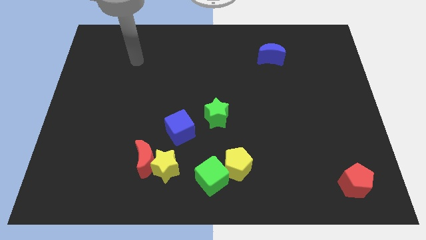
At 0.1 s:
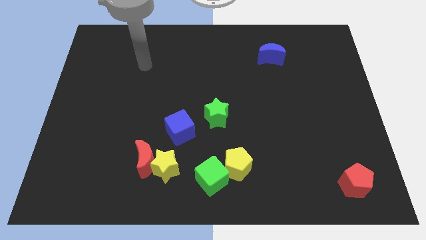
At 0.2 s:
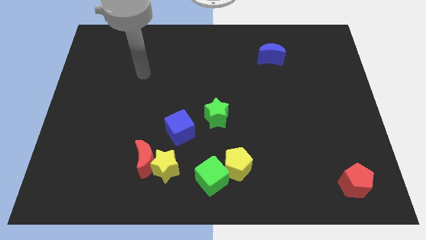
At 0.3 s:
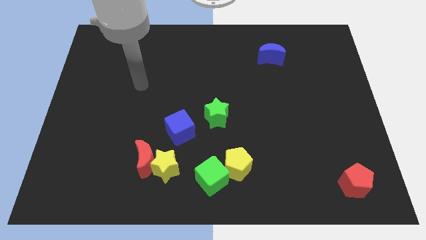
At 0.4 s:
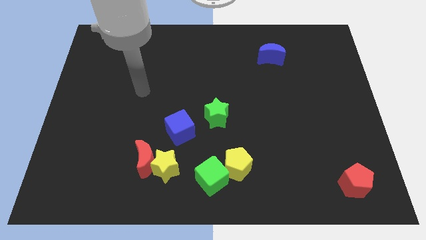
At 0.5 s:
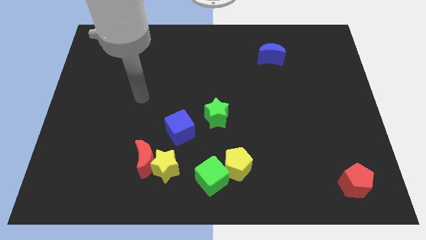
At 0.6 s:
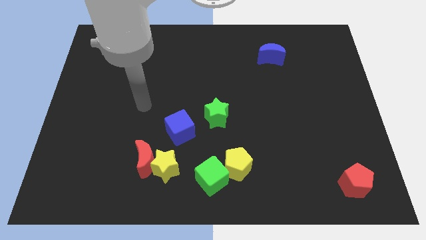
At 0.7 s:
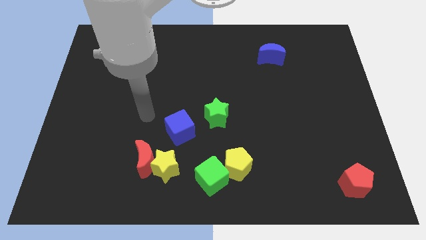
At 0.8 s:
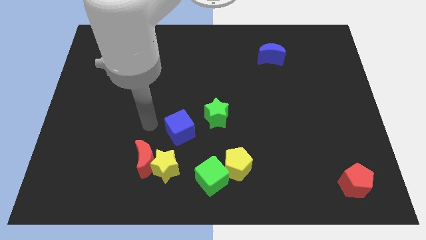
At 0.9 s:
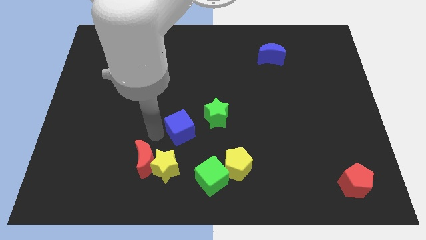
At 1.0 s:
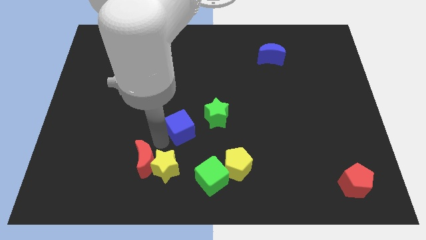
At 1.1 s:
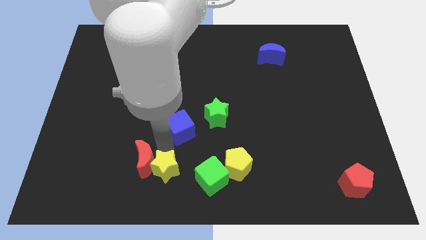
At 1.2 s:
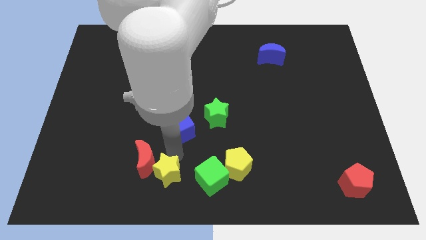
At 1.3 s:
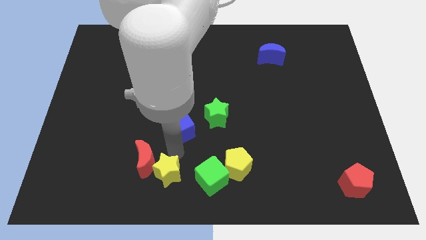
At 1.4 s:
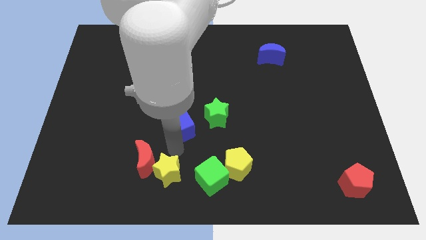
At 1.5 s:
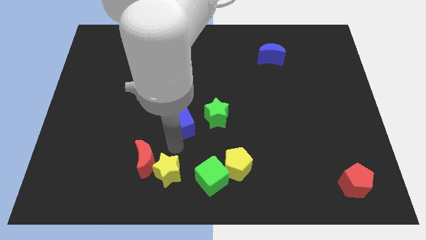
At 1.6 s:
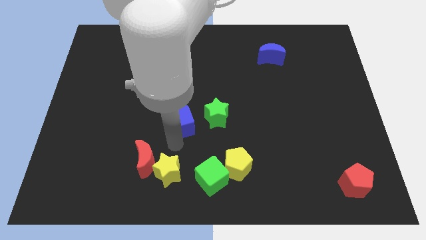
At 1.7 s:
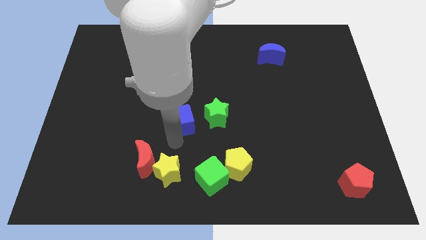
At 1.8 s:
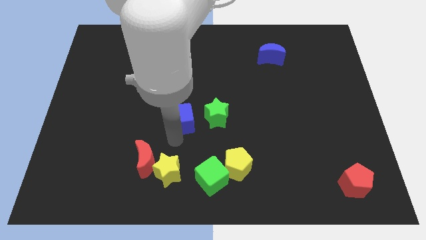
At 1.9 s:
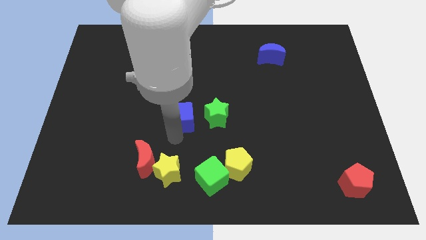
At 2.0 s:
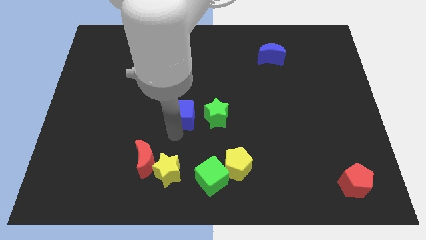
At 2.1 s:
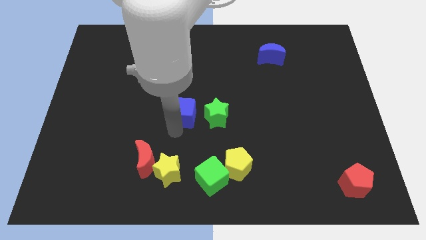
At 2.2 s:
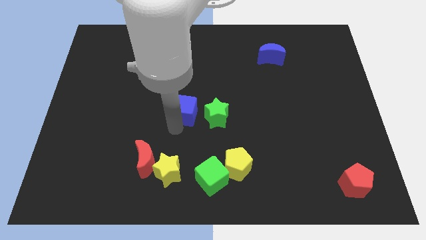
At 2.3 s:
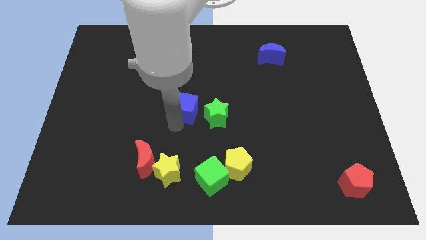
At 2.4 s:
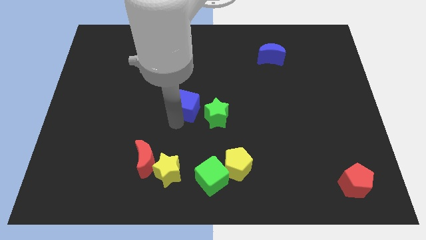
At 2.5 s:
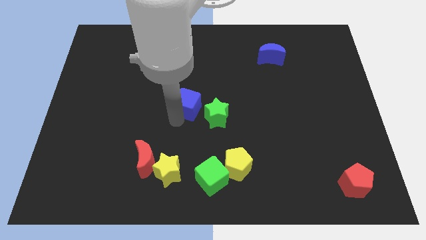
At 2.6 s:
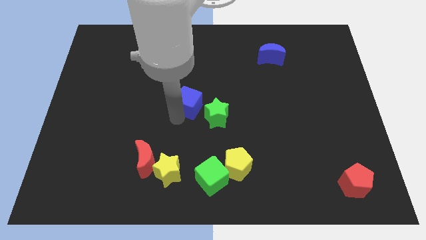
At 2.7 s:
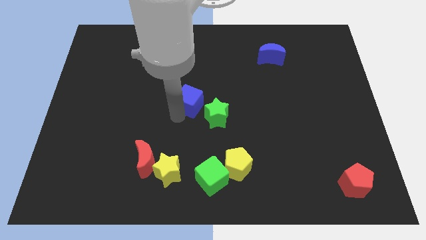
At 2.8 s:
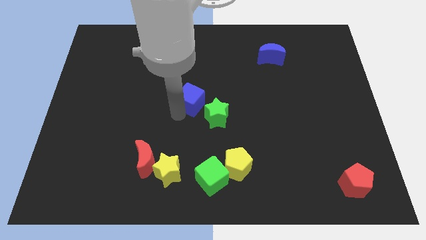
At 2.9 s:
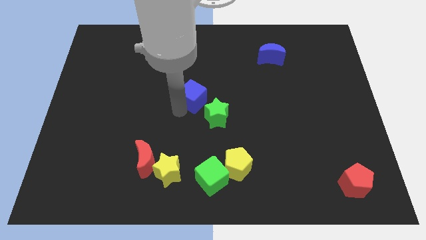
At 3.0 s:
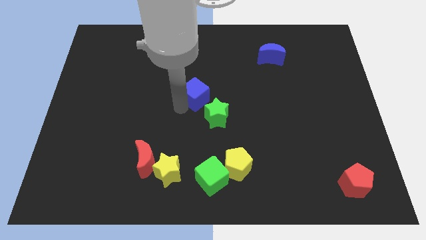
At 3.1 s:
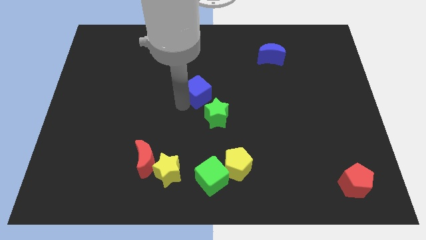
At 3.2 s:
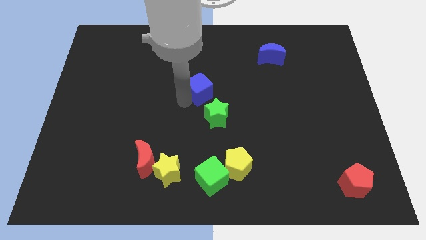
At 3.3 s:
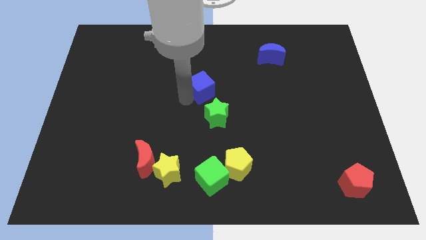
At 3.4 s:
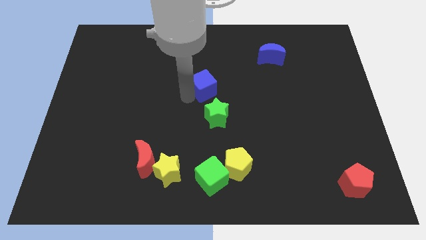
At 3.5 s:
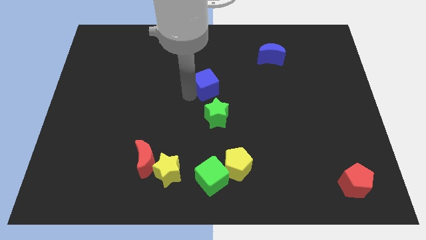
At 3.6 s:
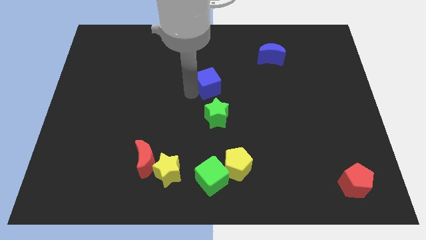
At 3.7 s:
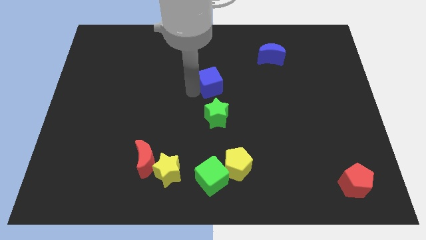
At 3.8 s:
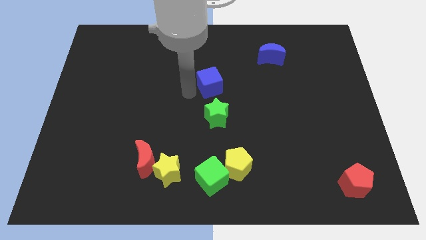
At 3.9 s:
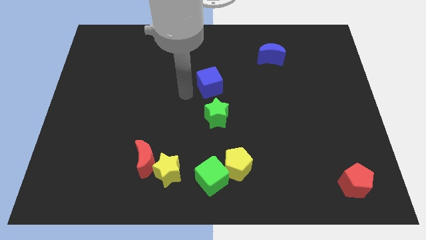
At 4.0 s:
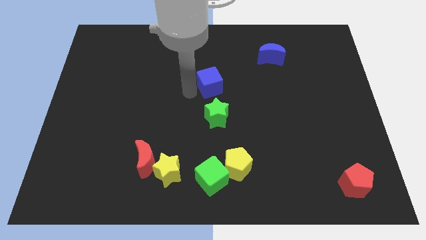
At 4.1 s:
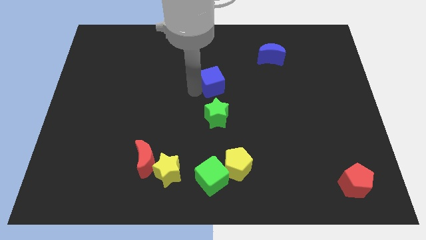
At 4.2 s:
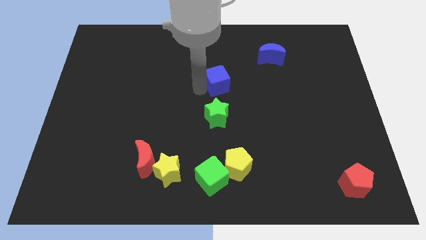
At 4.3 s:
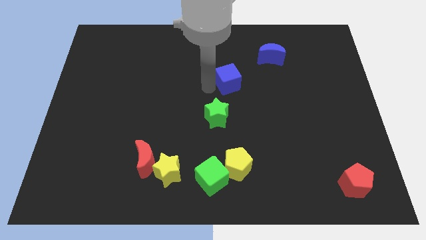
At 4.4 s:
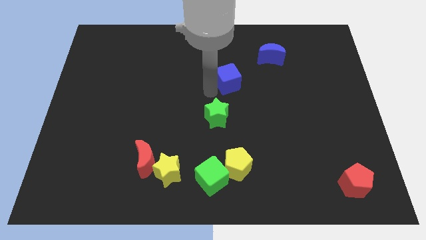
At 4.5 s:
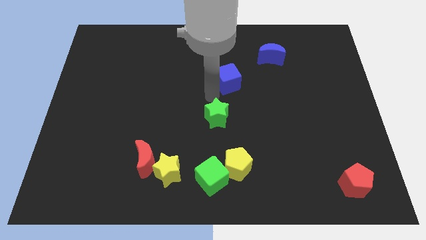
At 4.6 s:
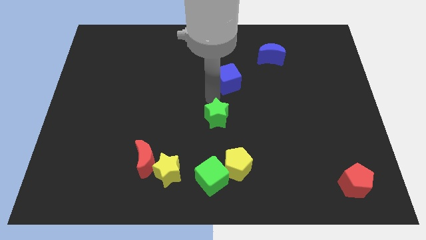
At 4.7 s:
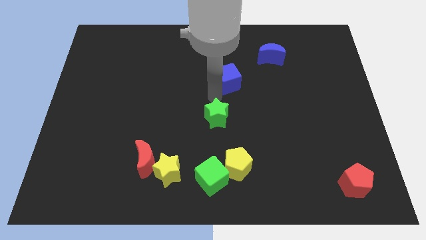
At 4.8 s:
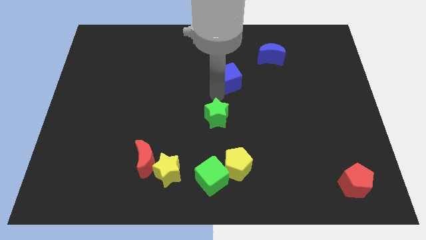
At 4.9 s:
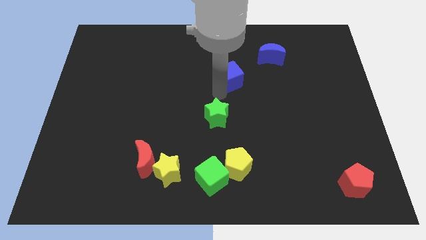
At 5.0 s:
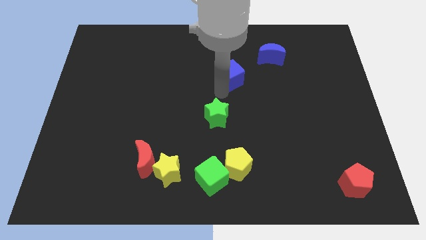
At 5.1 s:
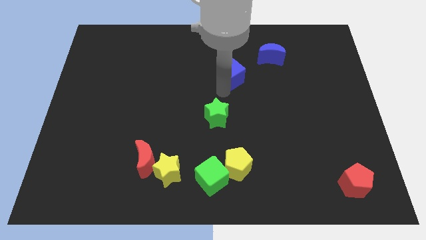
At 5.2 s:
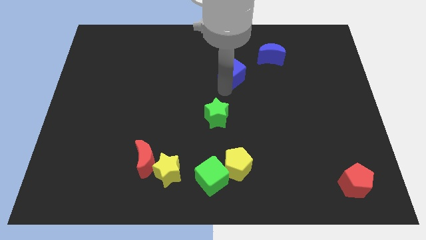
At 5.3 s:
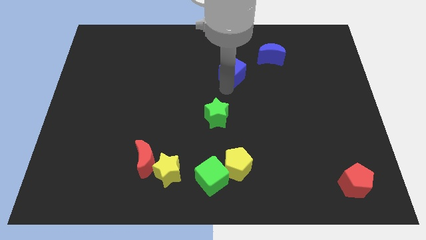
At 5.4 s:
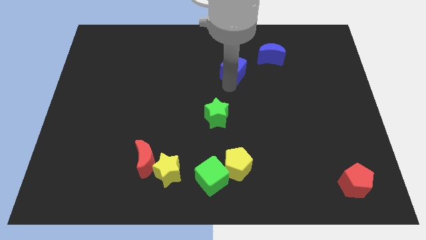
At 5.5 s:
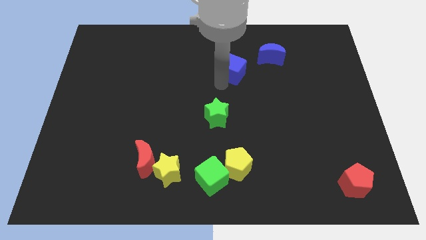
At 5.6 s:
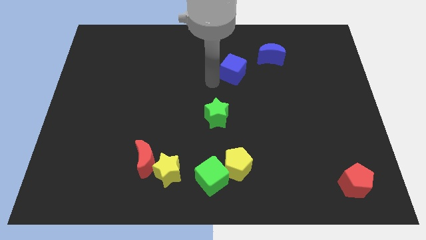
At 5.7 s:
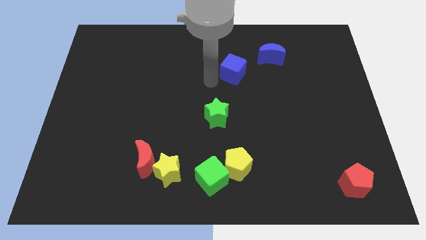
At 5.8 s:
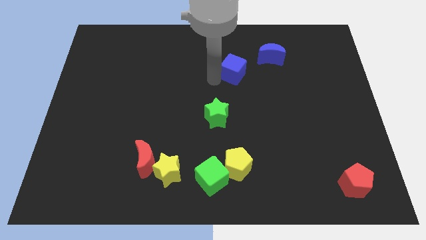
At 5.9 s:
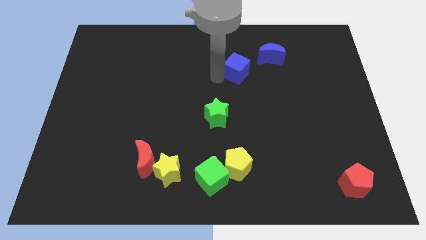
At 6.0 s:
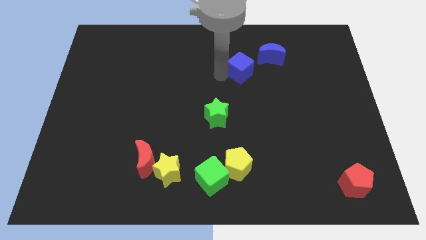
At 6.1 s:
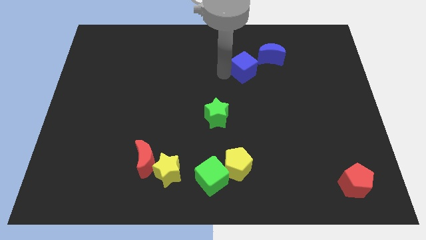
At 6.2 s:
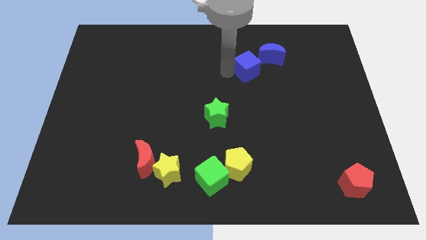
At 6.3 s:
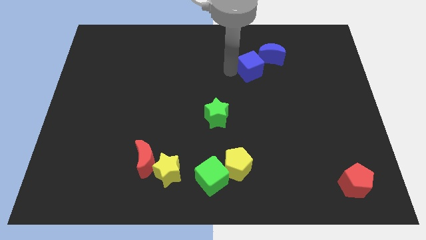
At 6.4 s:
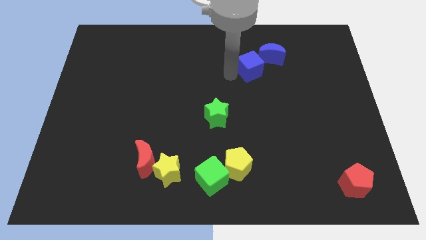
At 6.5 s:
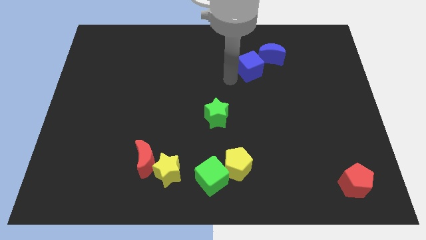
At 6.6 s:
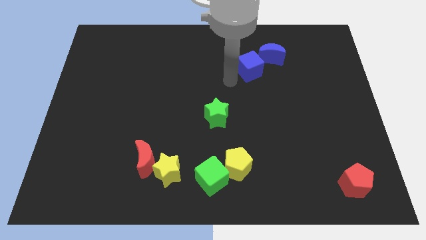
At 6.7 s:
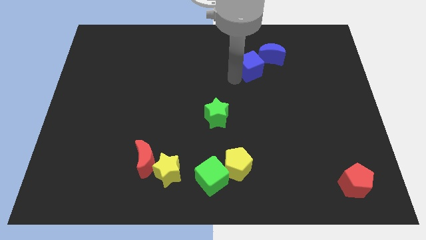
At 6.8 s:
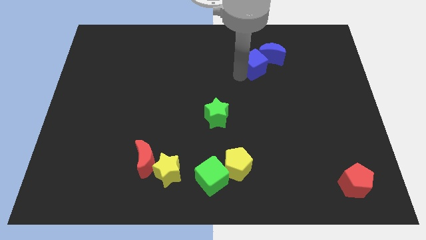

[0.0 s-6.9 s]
move the blue cube towards the blue moon
